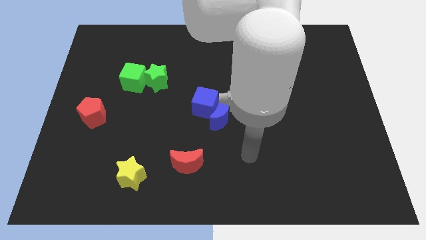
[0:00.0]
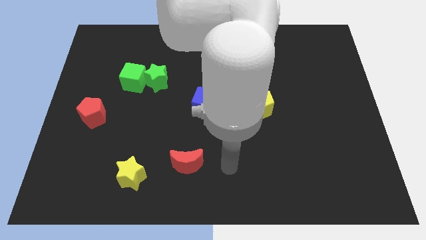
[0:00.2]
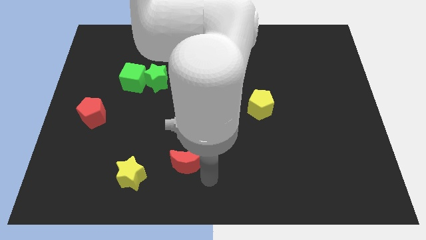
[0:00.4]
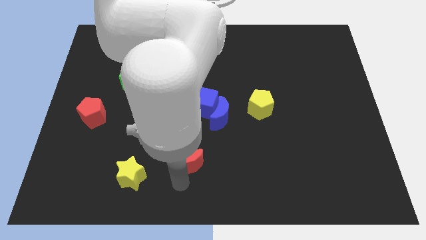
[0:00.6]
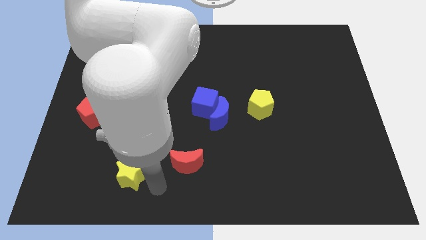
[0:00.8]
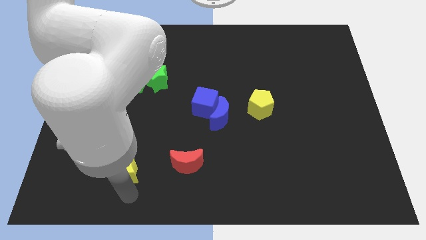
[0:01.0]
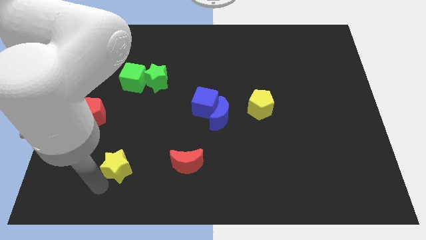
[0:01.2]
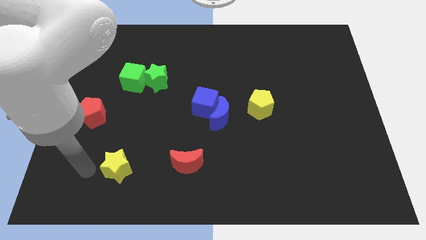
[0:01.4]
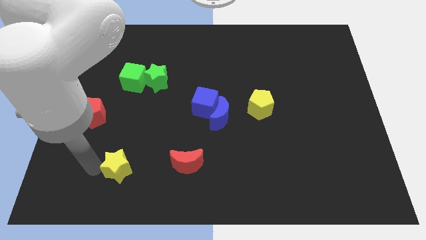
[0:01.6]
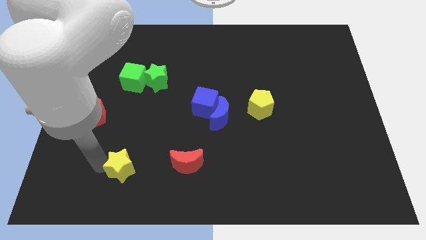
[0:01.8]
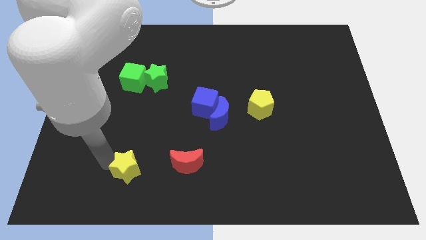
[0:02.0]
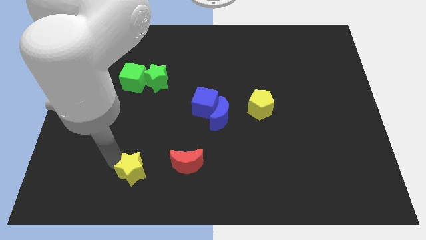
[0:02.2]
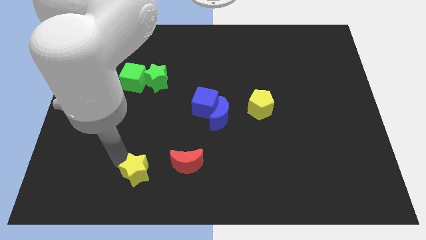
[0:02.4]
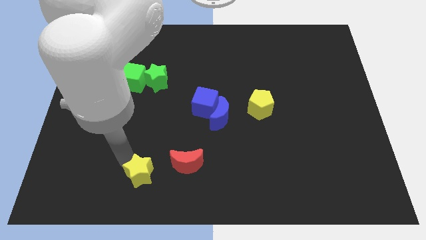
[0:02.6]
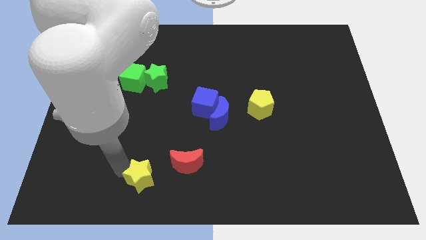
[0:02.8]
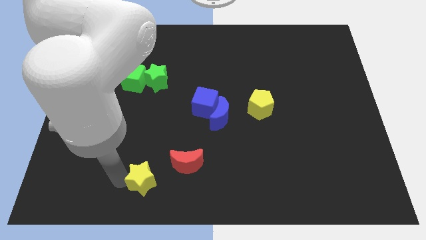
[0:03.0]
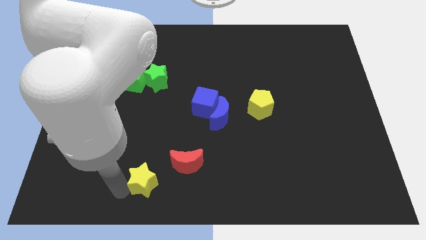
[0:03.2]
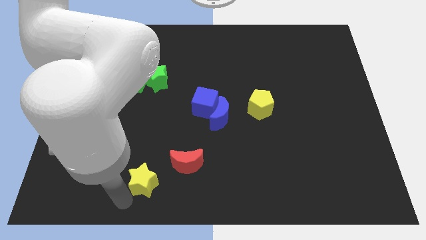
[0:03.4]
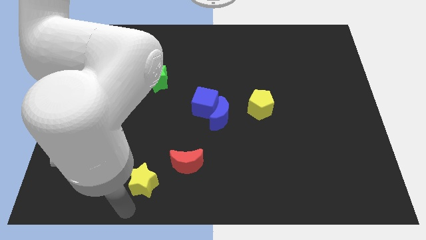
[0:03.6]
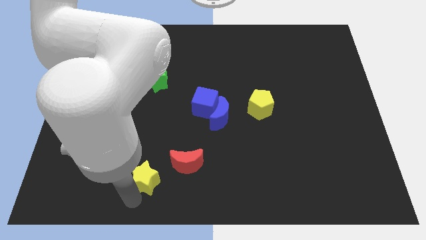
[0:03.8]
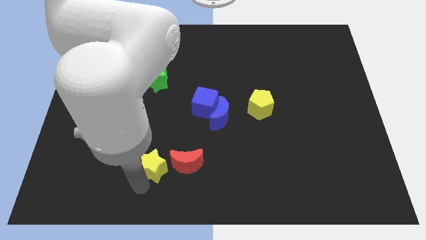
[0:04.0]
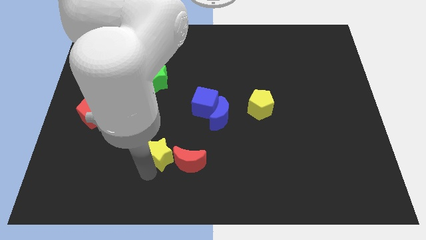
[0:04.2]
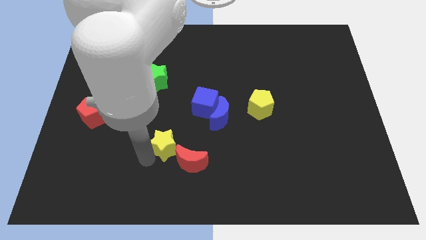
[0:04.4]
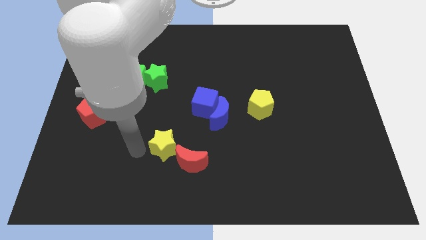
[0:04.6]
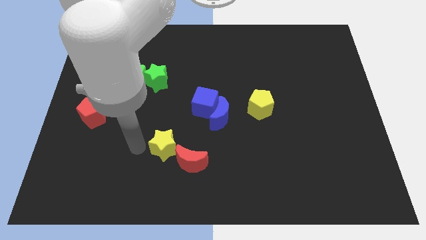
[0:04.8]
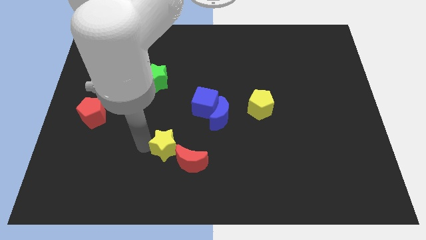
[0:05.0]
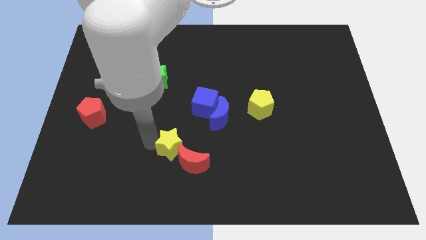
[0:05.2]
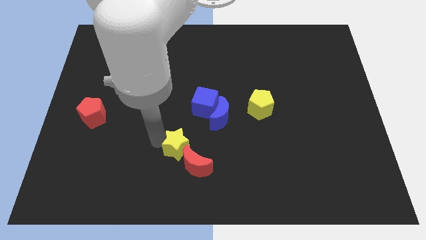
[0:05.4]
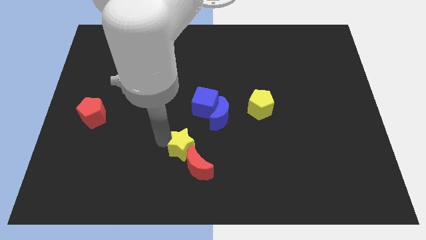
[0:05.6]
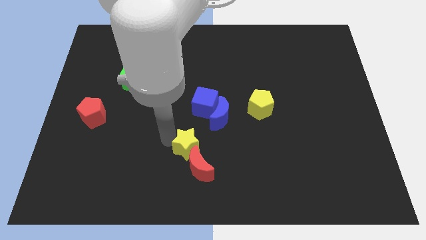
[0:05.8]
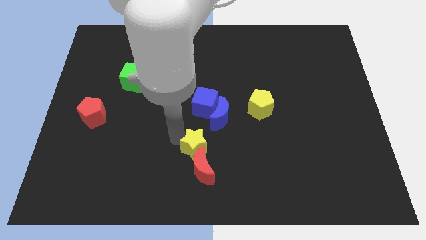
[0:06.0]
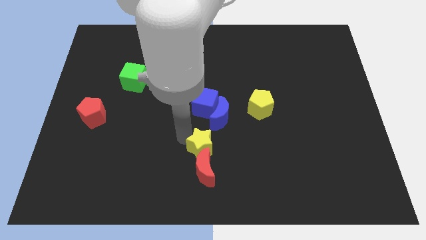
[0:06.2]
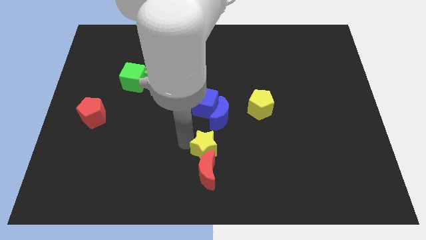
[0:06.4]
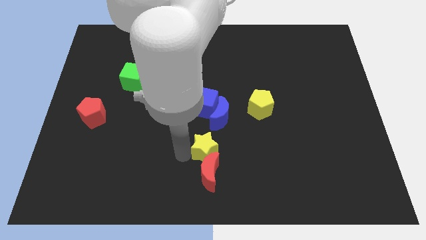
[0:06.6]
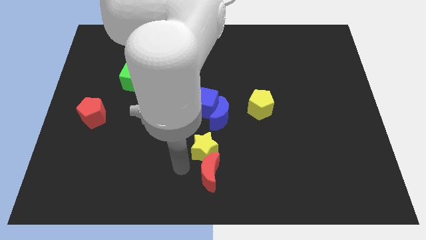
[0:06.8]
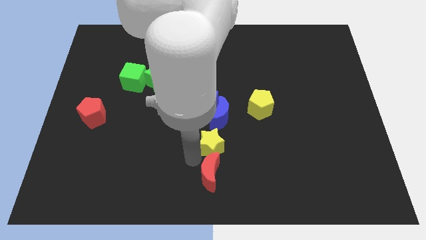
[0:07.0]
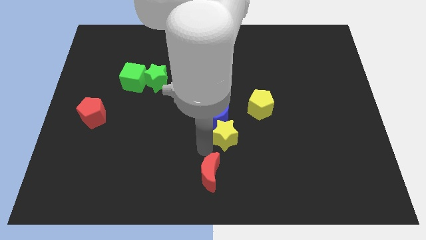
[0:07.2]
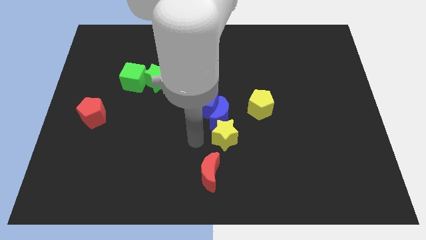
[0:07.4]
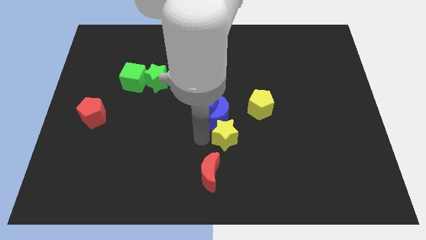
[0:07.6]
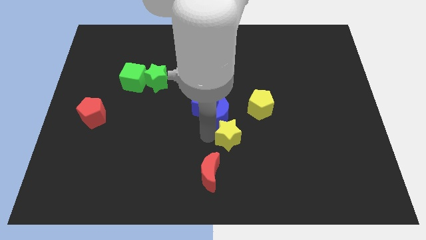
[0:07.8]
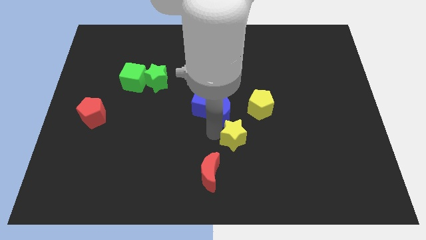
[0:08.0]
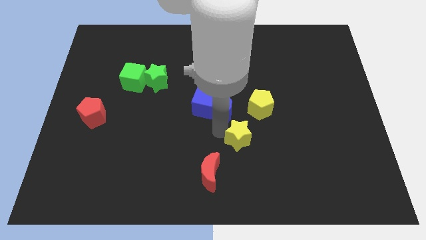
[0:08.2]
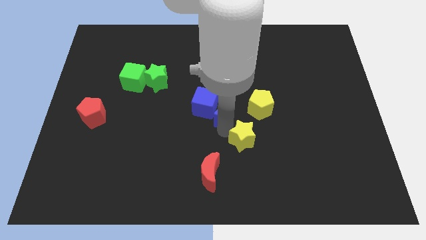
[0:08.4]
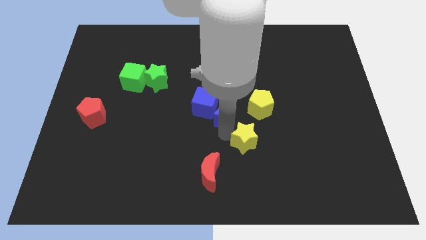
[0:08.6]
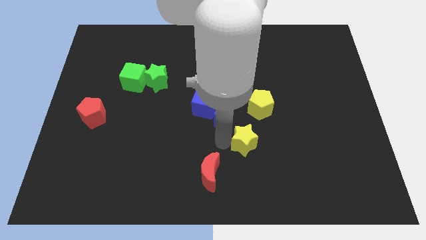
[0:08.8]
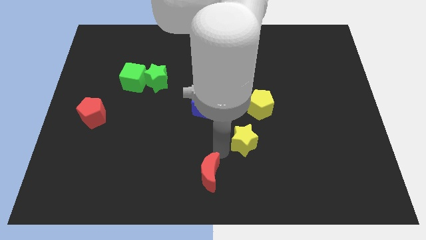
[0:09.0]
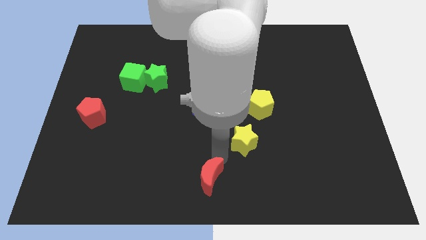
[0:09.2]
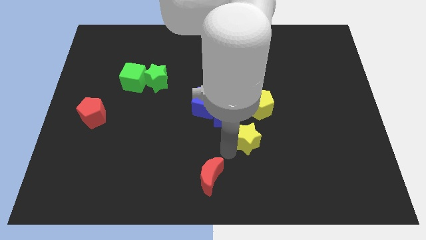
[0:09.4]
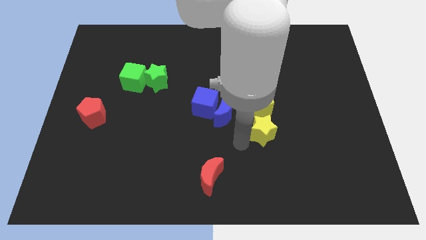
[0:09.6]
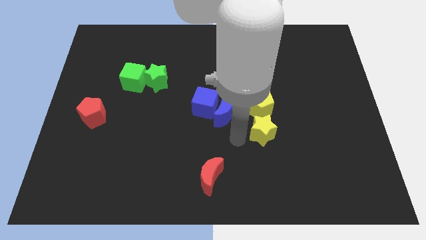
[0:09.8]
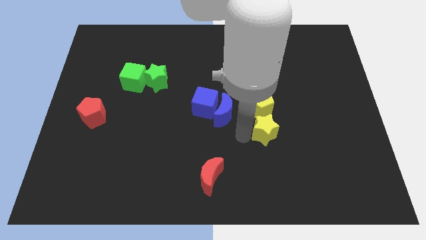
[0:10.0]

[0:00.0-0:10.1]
move the yellow star diagonally down and to the right of the yellow pentagon

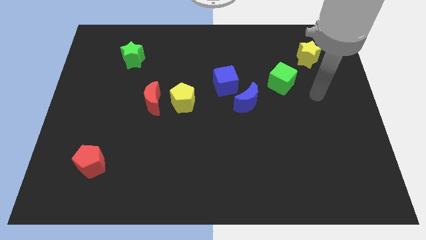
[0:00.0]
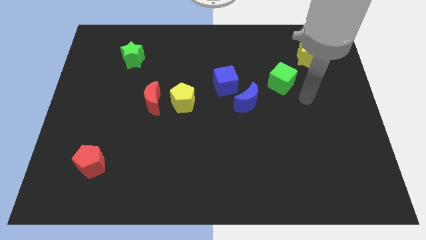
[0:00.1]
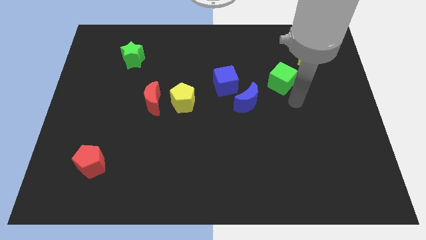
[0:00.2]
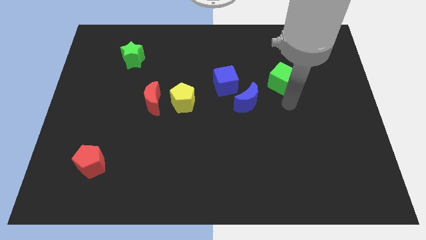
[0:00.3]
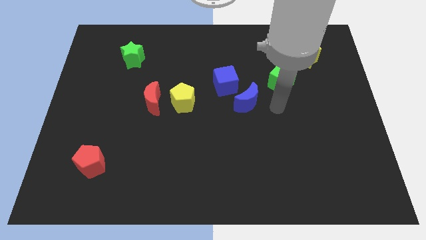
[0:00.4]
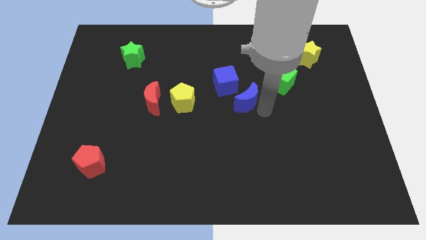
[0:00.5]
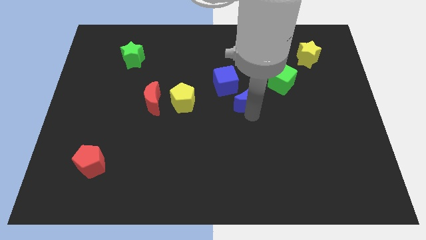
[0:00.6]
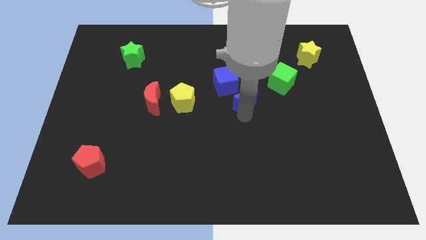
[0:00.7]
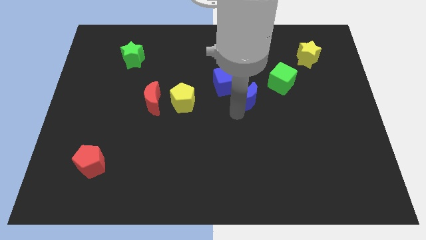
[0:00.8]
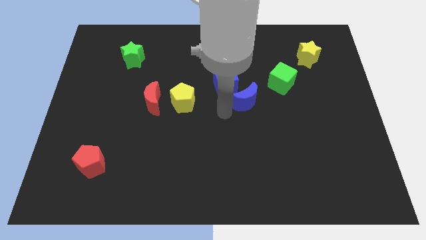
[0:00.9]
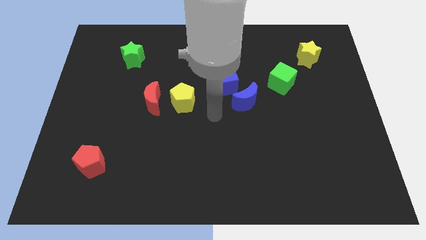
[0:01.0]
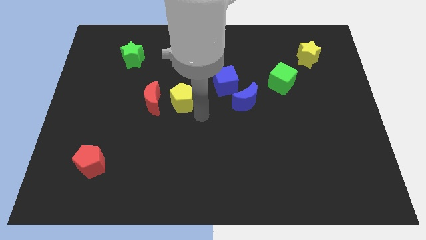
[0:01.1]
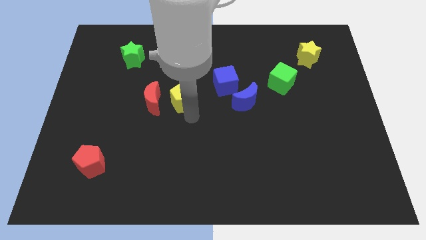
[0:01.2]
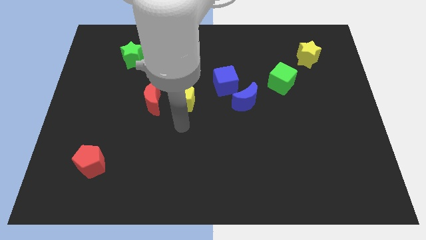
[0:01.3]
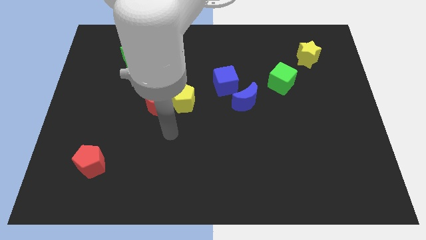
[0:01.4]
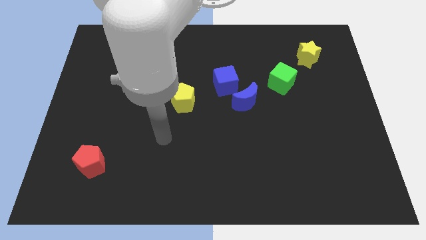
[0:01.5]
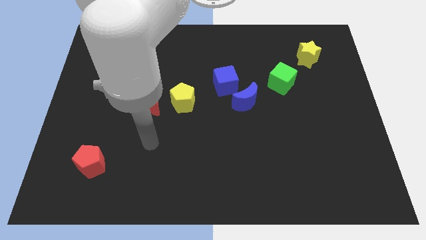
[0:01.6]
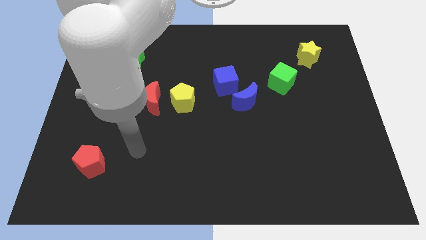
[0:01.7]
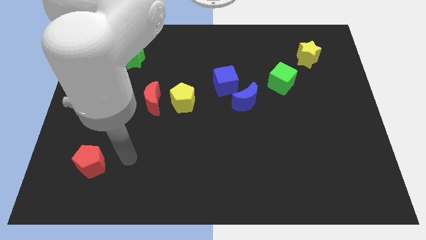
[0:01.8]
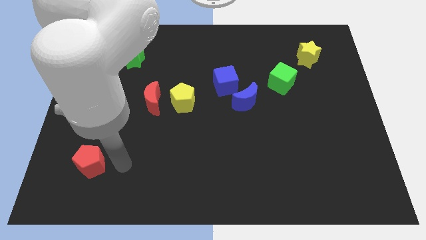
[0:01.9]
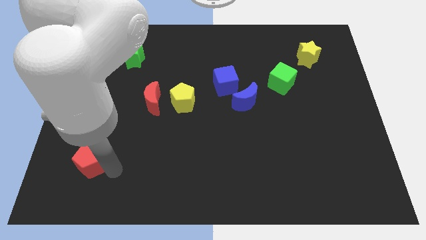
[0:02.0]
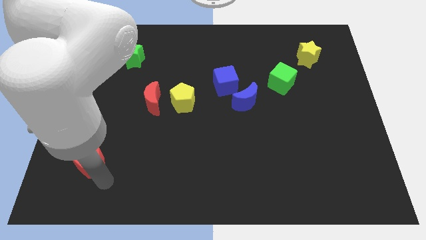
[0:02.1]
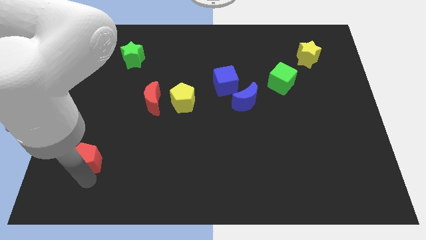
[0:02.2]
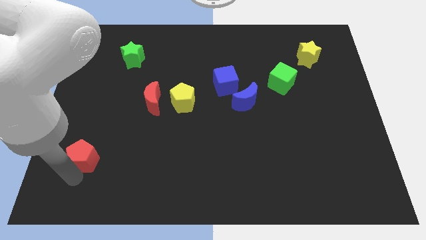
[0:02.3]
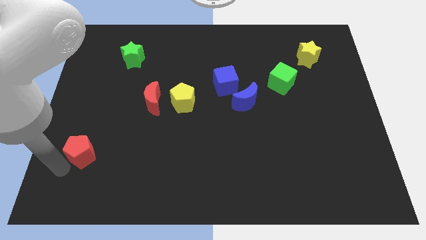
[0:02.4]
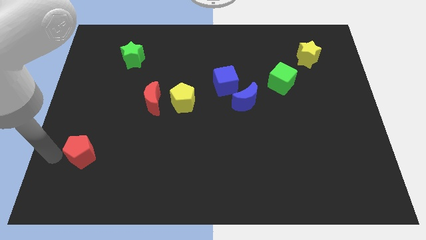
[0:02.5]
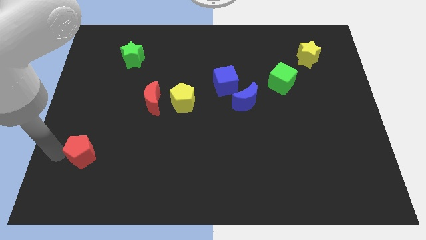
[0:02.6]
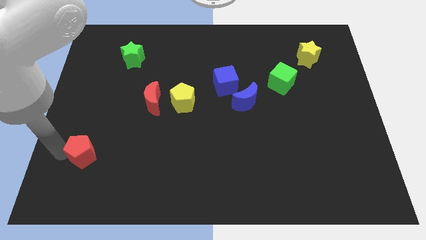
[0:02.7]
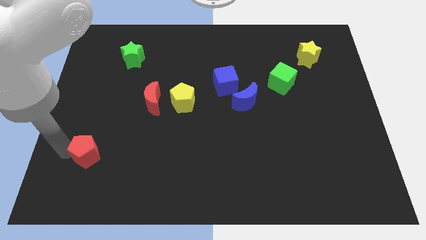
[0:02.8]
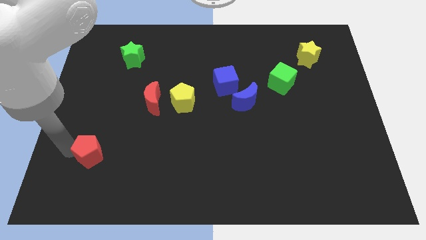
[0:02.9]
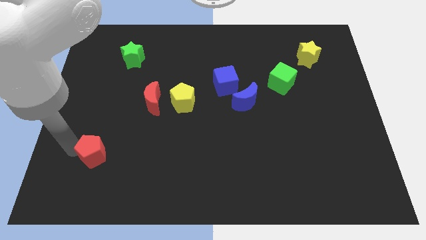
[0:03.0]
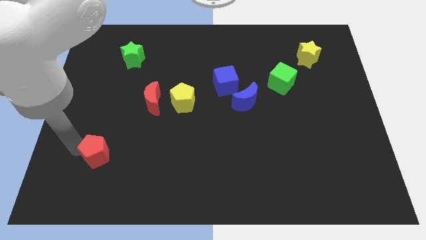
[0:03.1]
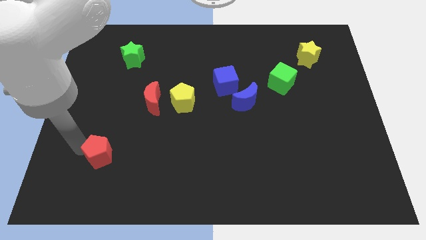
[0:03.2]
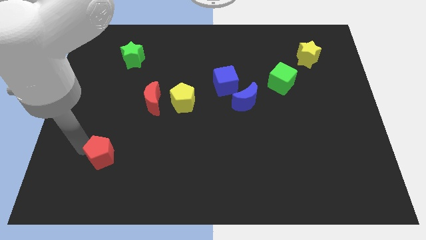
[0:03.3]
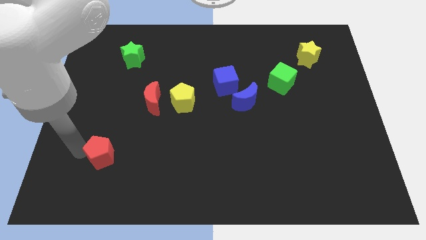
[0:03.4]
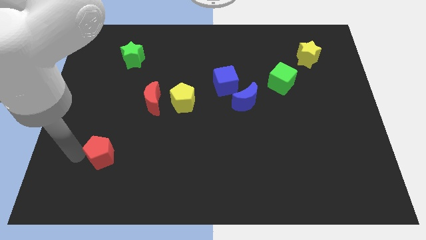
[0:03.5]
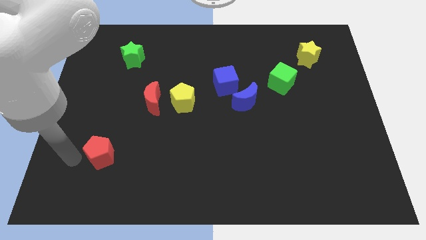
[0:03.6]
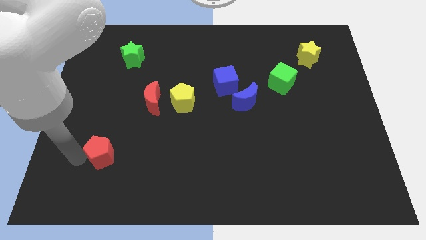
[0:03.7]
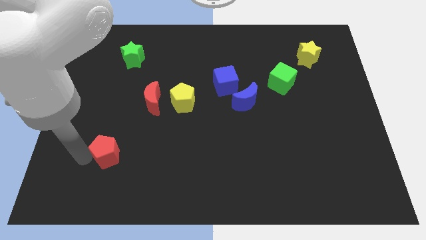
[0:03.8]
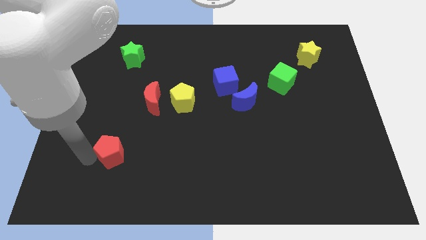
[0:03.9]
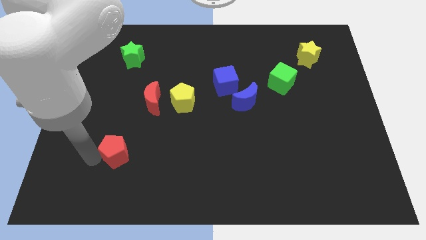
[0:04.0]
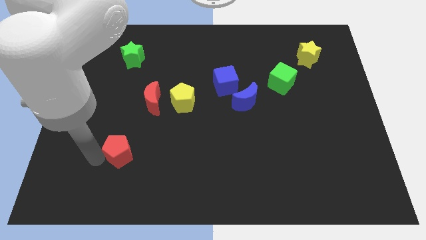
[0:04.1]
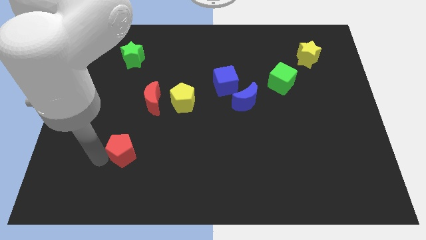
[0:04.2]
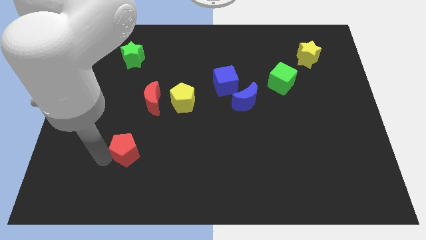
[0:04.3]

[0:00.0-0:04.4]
push the red pentagon below the red moon
